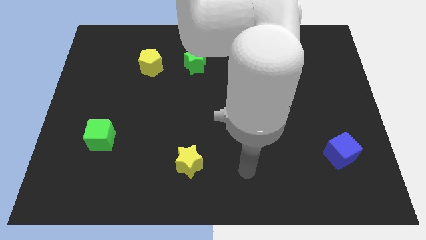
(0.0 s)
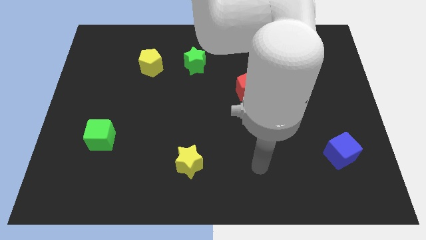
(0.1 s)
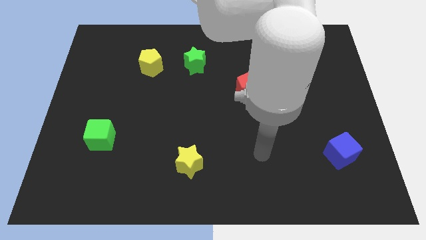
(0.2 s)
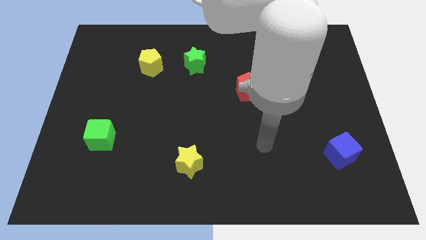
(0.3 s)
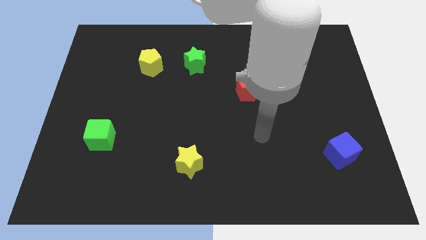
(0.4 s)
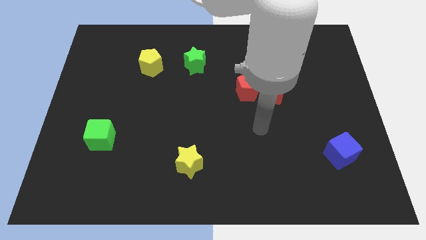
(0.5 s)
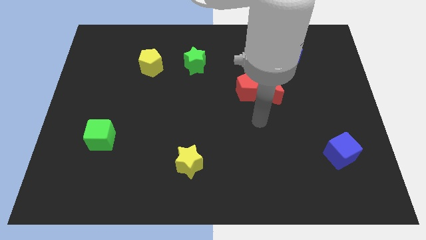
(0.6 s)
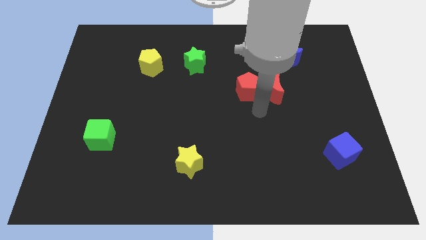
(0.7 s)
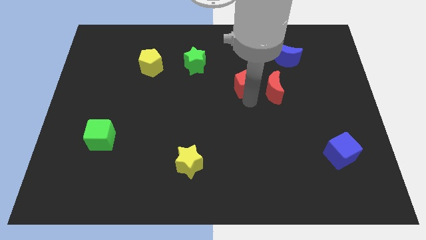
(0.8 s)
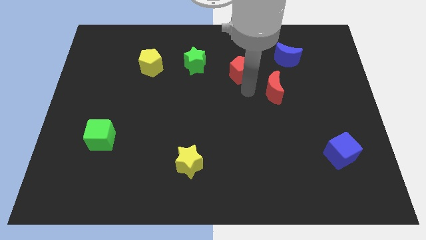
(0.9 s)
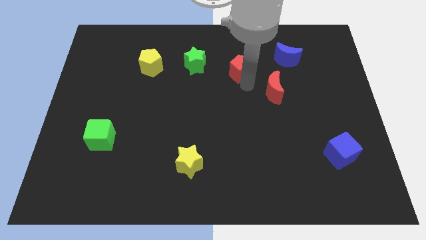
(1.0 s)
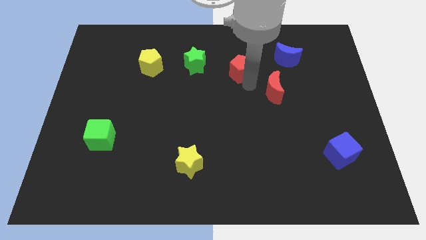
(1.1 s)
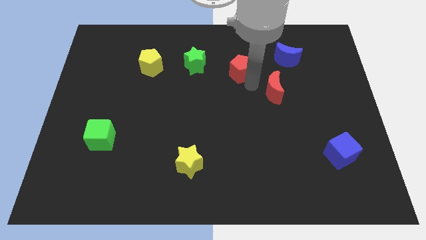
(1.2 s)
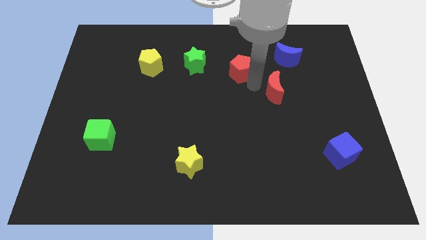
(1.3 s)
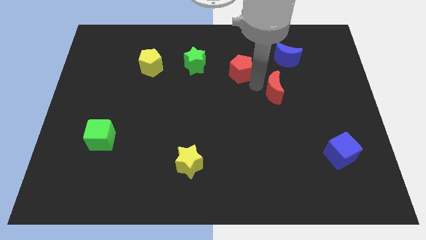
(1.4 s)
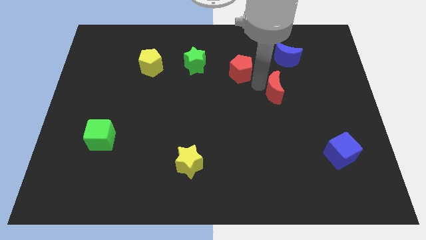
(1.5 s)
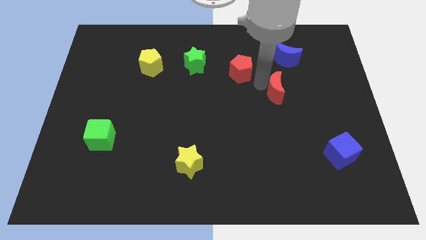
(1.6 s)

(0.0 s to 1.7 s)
pull the red moon apart from the red pentagon

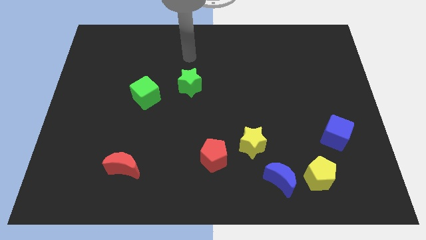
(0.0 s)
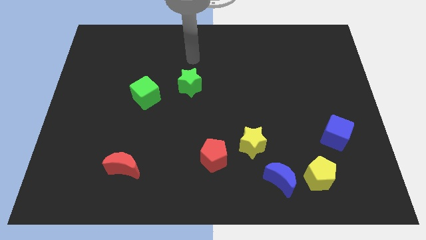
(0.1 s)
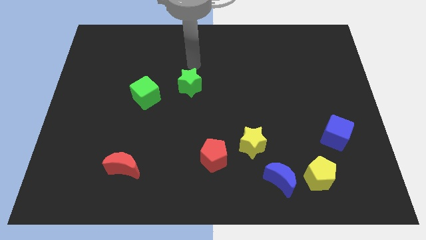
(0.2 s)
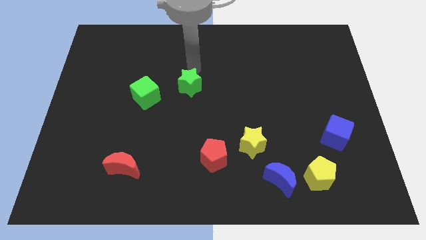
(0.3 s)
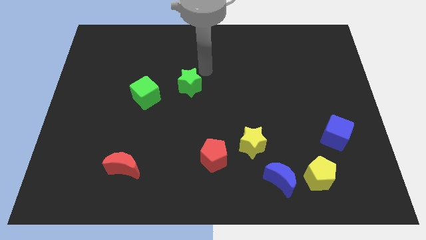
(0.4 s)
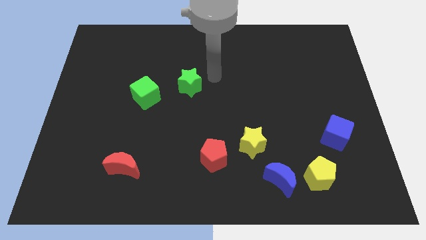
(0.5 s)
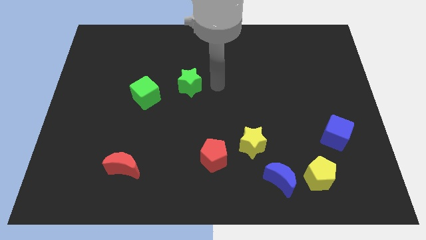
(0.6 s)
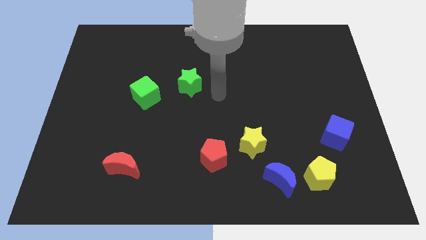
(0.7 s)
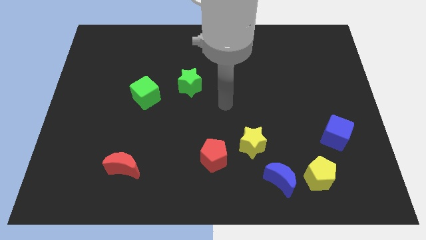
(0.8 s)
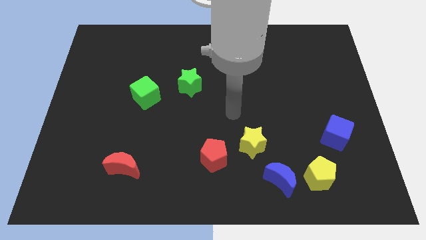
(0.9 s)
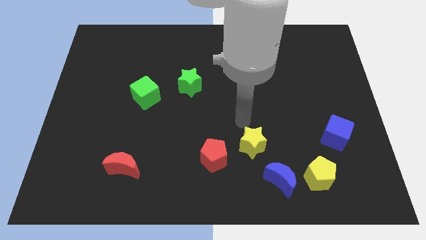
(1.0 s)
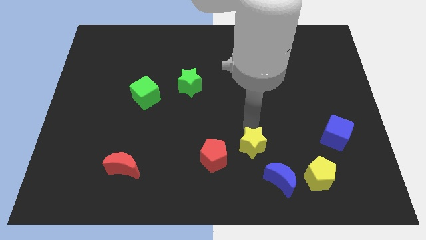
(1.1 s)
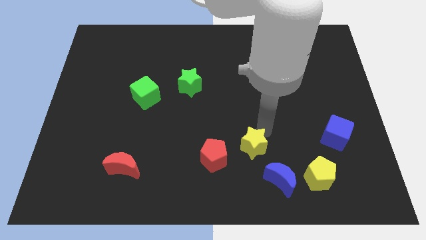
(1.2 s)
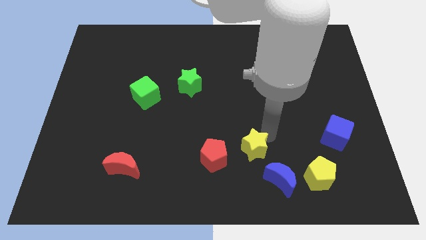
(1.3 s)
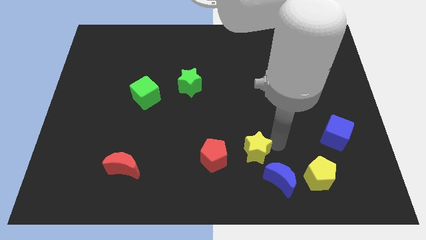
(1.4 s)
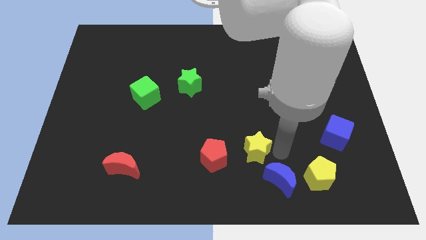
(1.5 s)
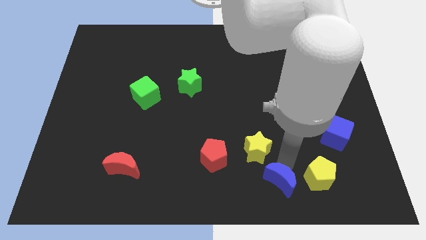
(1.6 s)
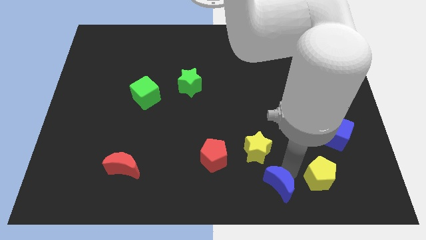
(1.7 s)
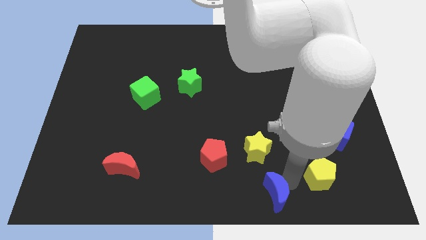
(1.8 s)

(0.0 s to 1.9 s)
move the yellow pentagon away from the blue moon

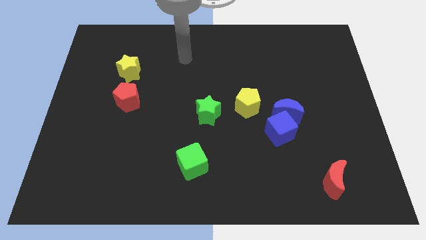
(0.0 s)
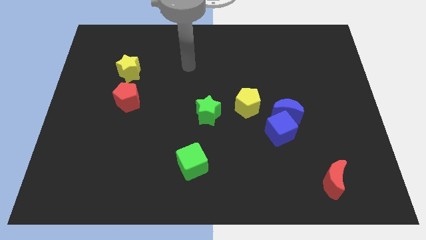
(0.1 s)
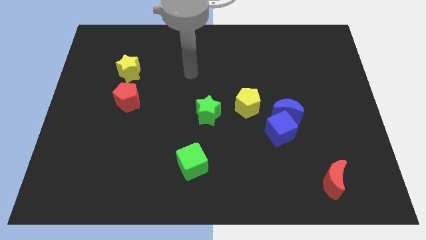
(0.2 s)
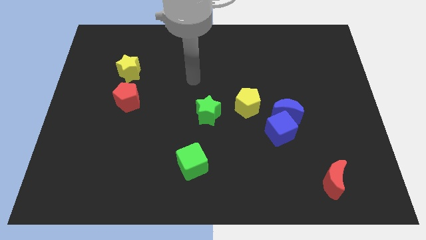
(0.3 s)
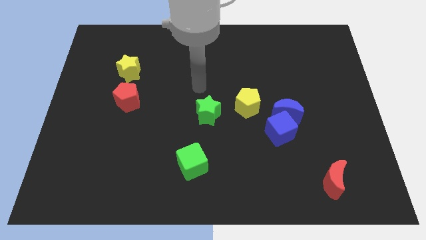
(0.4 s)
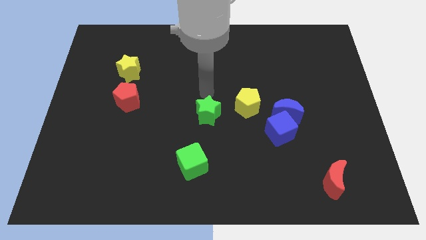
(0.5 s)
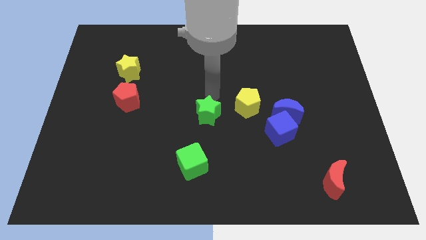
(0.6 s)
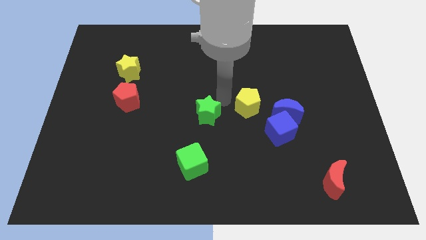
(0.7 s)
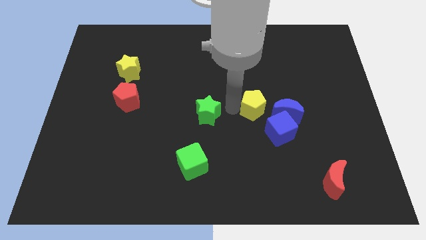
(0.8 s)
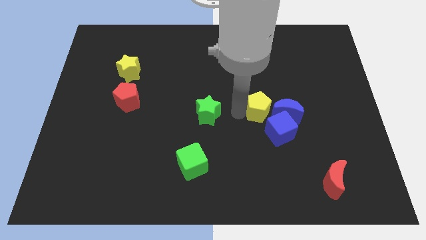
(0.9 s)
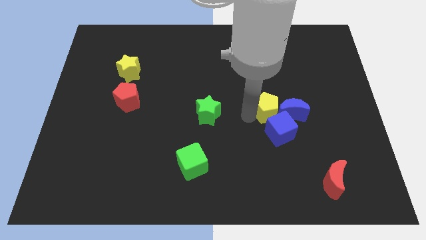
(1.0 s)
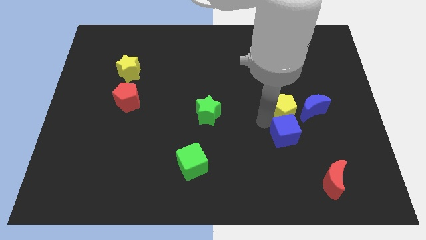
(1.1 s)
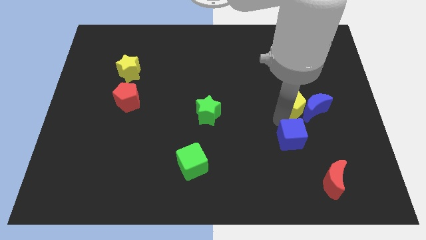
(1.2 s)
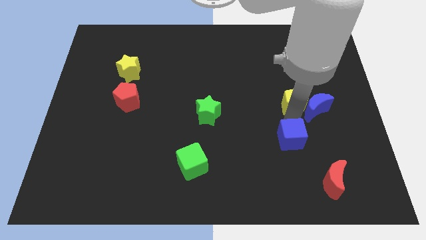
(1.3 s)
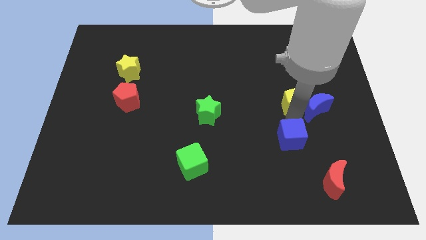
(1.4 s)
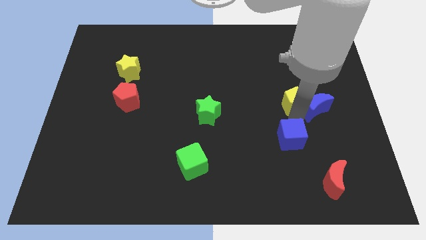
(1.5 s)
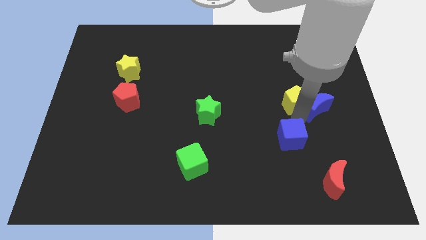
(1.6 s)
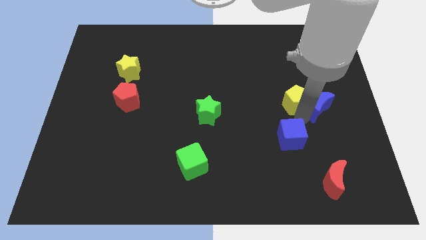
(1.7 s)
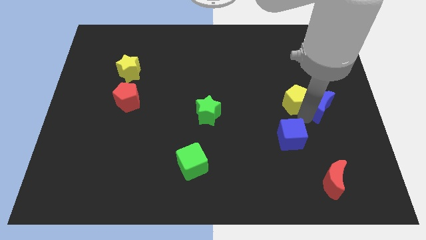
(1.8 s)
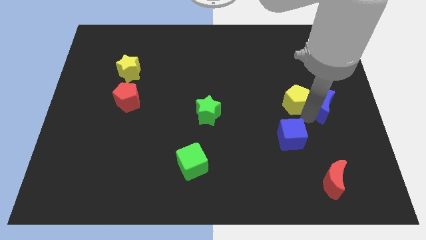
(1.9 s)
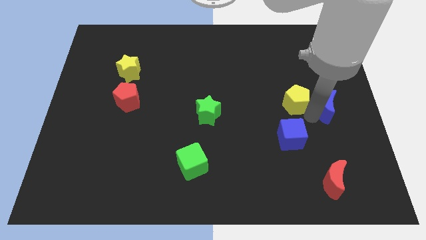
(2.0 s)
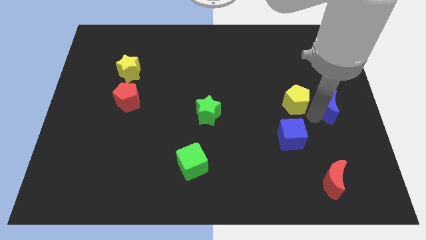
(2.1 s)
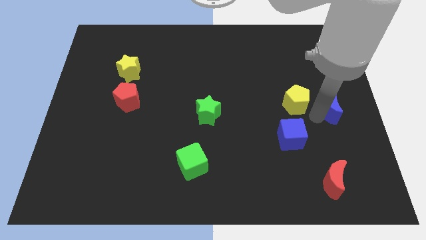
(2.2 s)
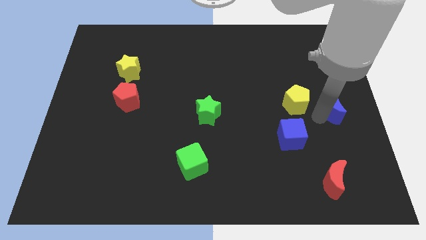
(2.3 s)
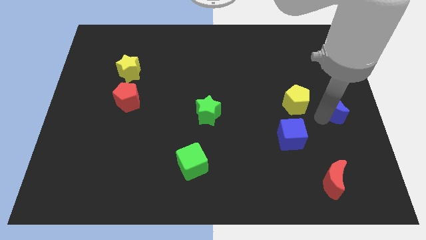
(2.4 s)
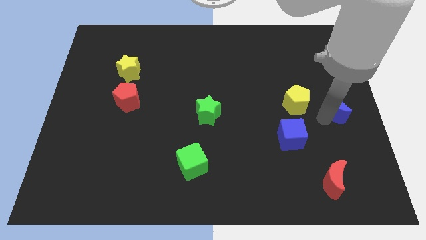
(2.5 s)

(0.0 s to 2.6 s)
pull the blue moon apart from the blue cube and yellow pentagon

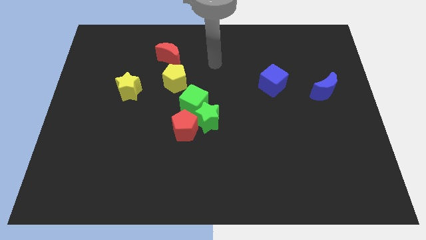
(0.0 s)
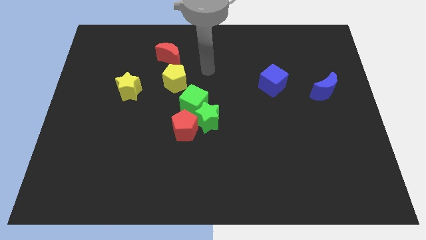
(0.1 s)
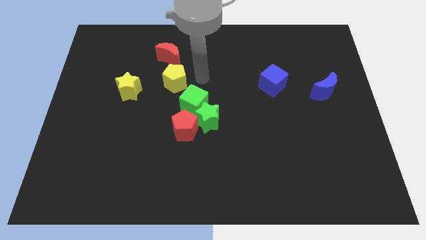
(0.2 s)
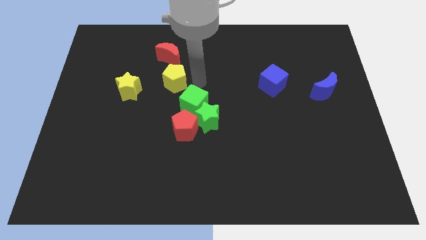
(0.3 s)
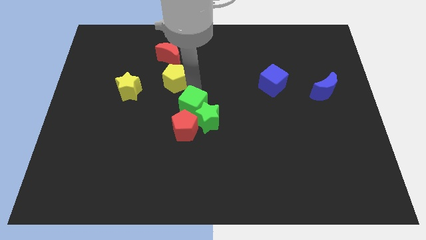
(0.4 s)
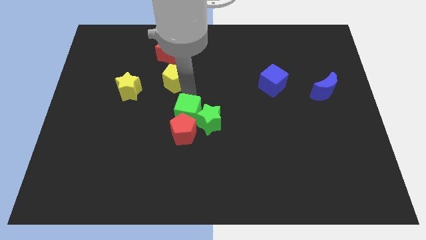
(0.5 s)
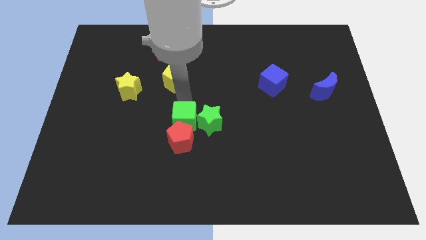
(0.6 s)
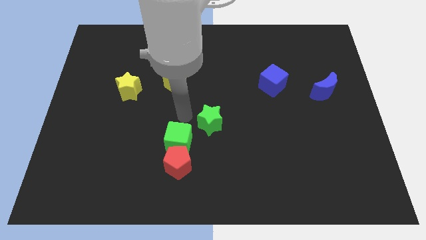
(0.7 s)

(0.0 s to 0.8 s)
move the green star away from the red pentagon and green cube

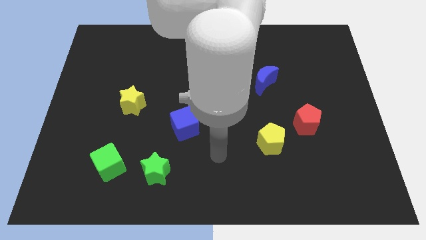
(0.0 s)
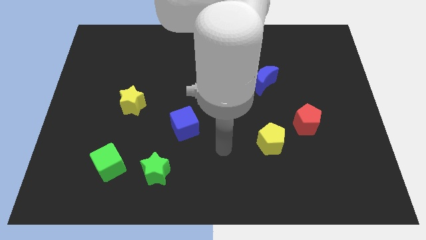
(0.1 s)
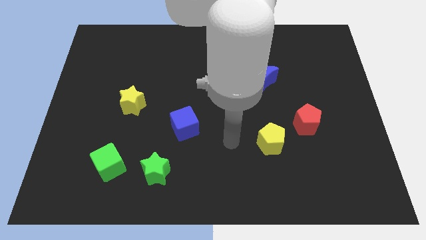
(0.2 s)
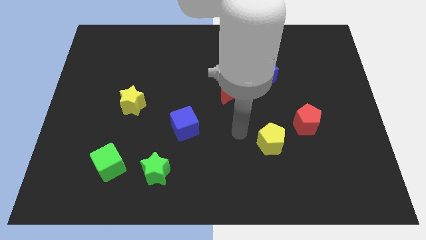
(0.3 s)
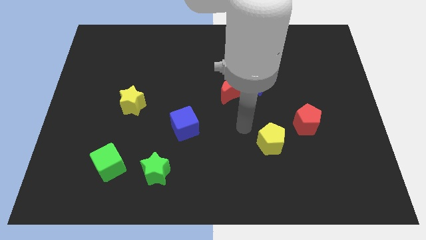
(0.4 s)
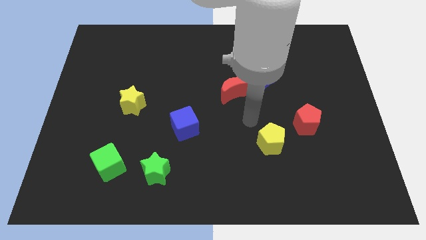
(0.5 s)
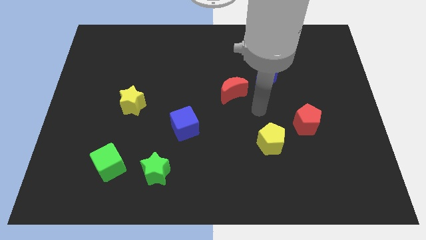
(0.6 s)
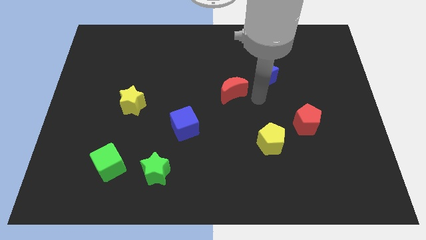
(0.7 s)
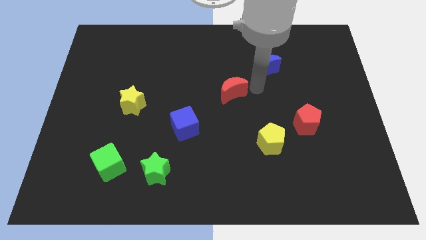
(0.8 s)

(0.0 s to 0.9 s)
separate the red moon from the blue moon

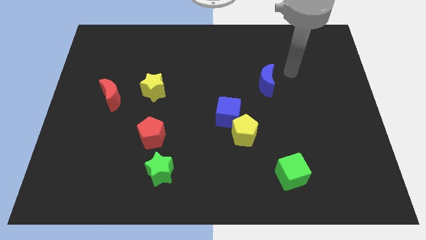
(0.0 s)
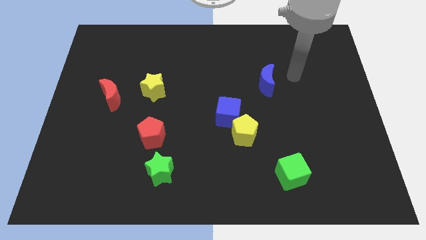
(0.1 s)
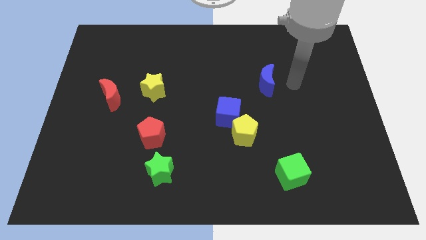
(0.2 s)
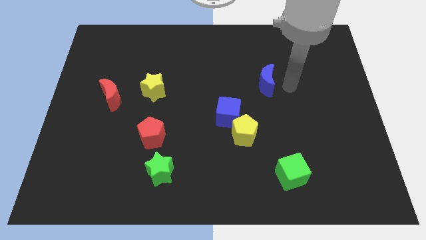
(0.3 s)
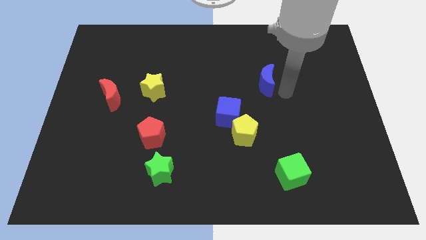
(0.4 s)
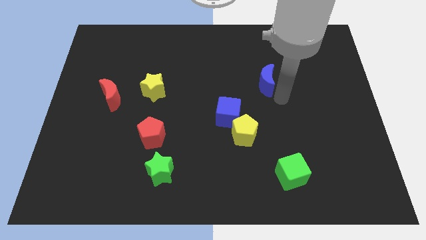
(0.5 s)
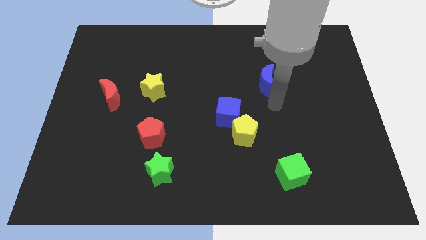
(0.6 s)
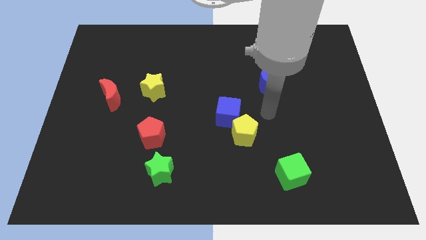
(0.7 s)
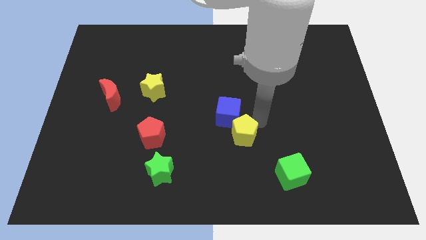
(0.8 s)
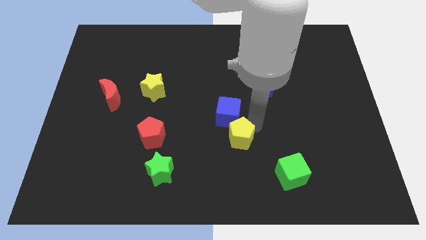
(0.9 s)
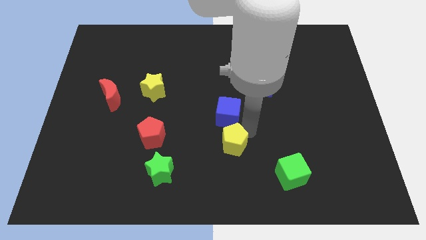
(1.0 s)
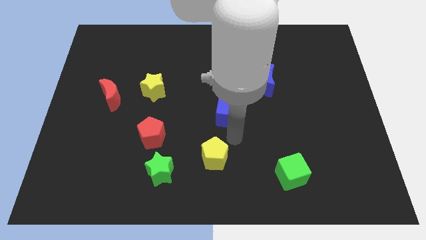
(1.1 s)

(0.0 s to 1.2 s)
separate the blue cube from the yellow pentagon

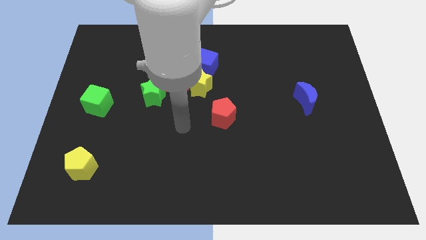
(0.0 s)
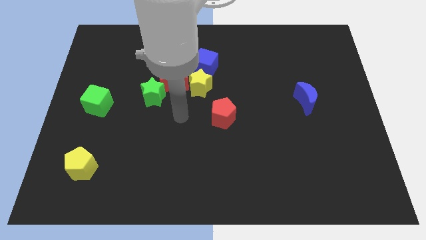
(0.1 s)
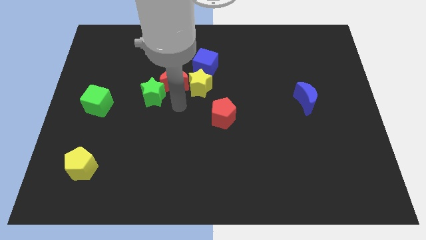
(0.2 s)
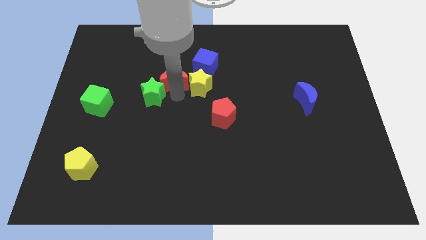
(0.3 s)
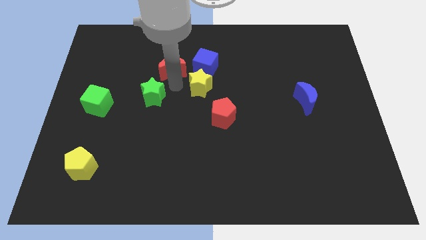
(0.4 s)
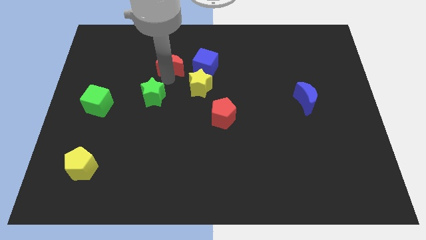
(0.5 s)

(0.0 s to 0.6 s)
pull the green star apart from the red moon
